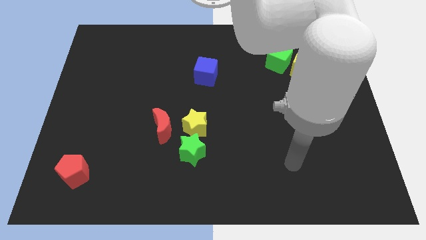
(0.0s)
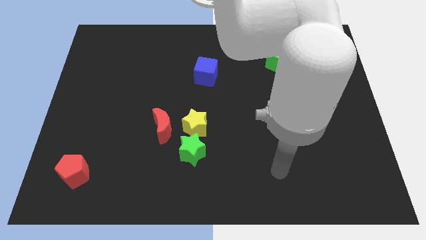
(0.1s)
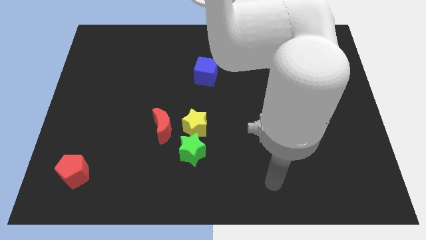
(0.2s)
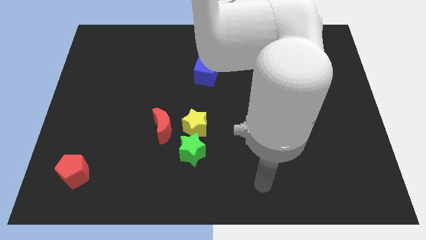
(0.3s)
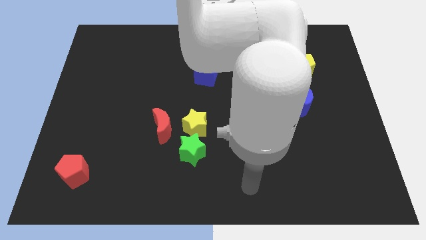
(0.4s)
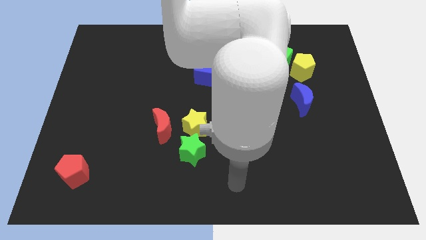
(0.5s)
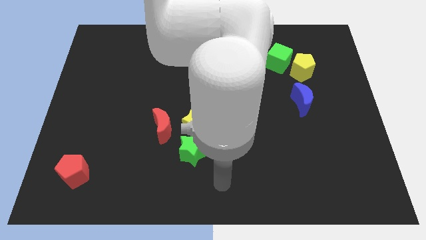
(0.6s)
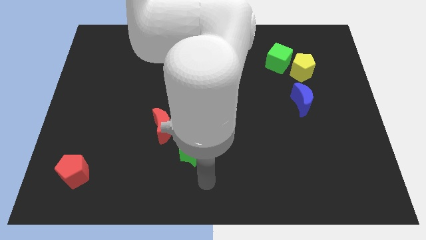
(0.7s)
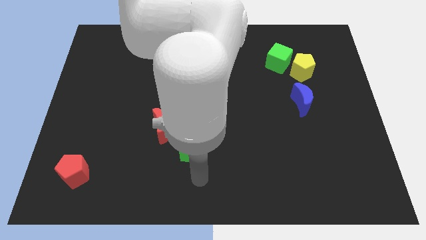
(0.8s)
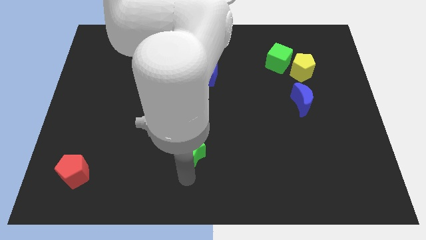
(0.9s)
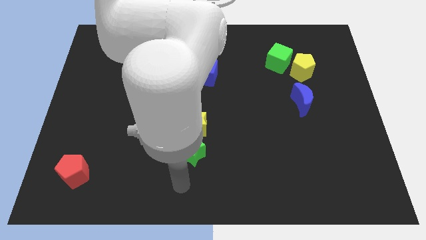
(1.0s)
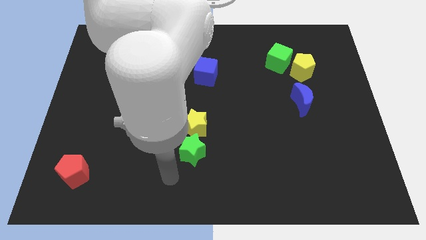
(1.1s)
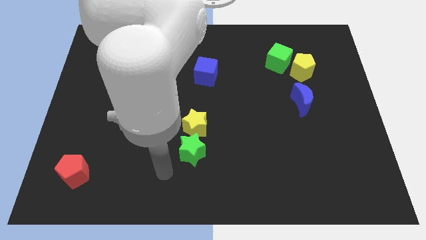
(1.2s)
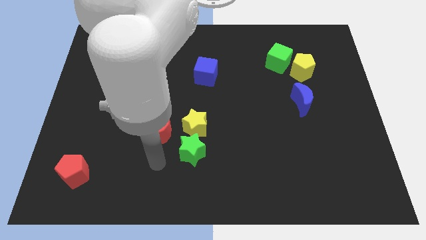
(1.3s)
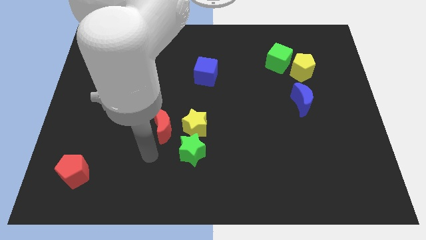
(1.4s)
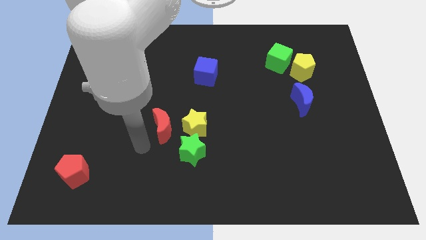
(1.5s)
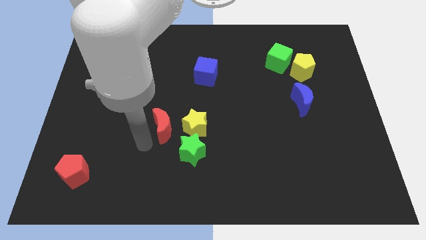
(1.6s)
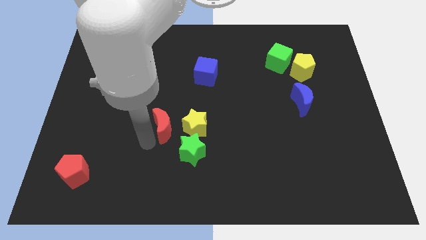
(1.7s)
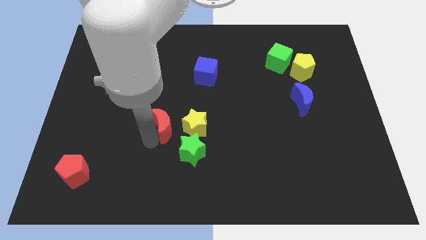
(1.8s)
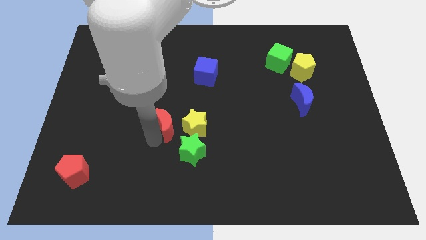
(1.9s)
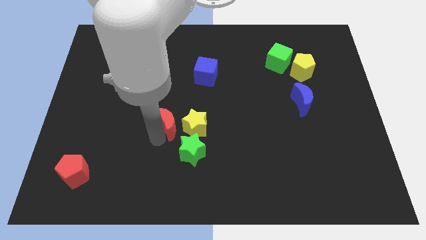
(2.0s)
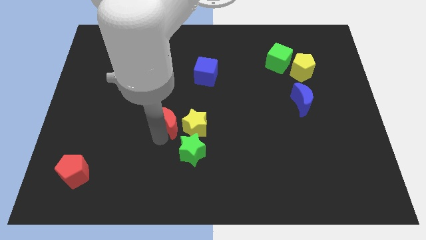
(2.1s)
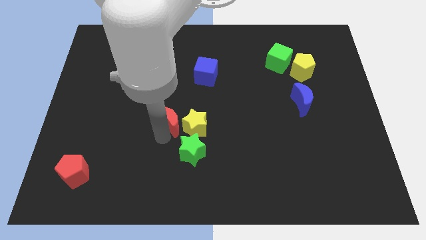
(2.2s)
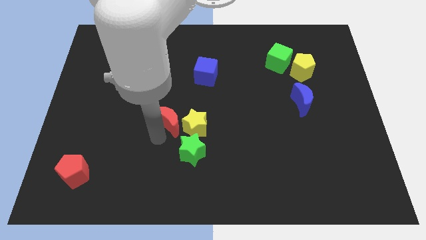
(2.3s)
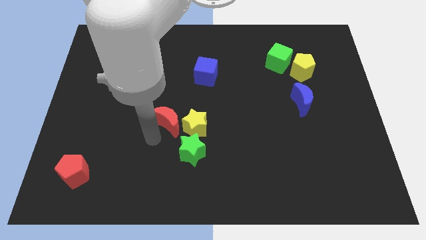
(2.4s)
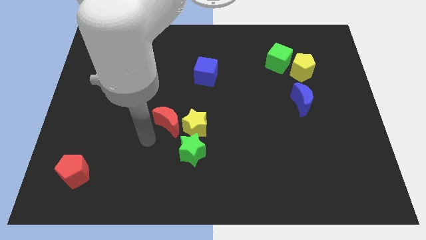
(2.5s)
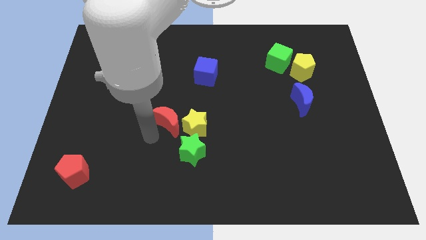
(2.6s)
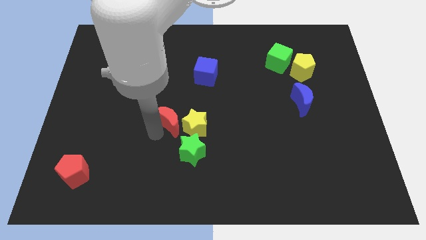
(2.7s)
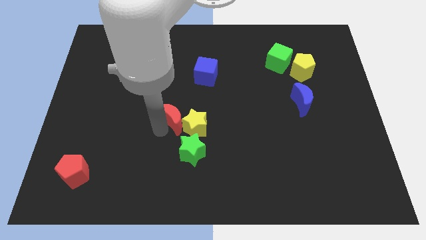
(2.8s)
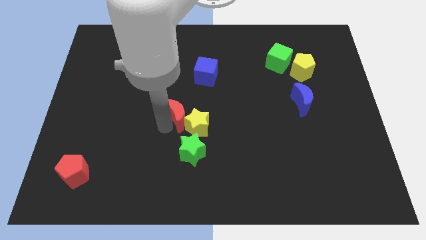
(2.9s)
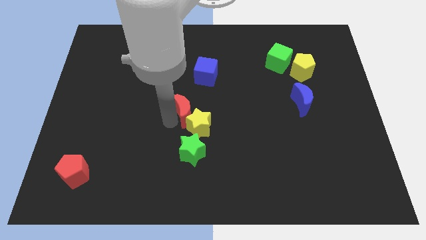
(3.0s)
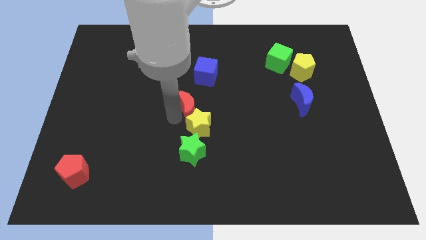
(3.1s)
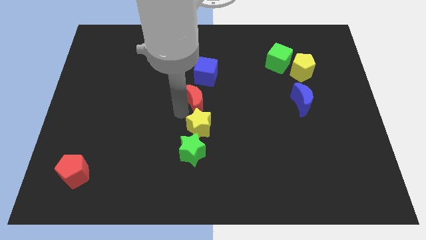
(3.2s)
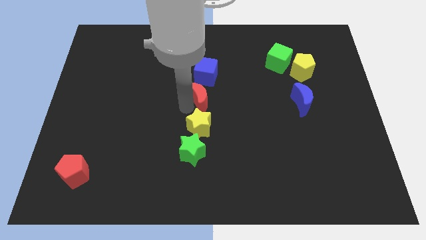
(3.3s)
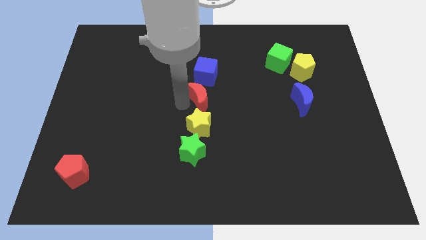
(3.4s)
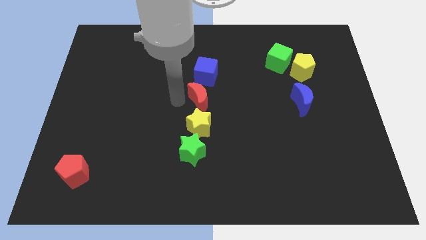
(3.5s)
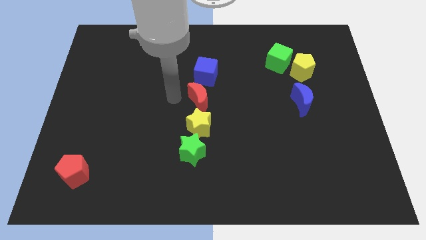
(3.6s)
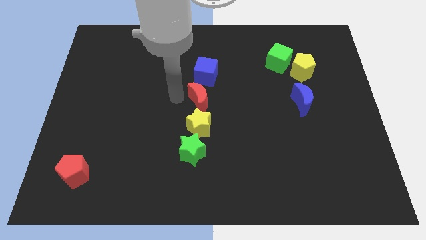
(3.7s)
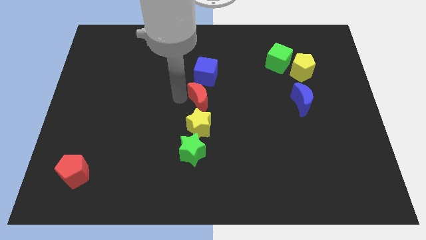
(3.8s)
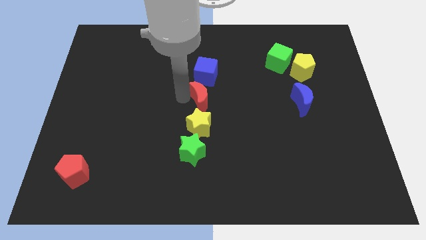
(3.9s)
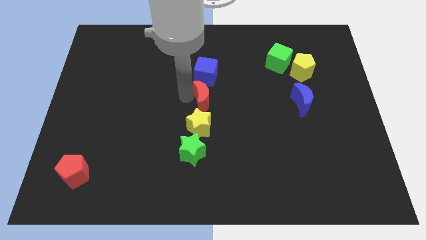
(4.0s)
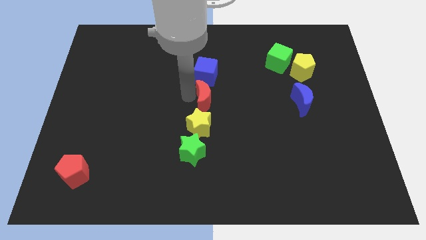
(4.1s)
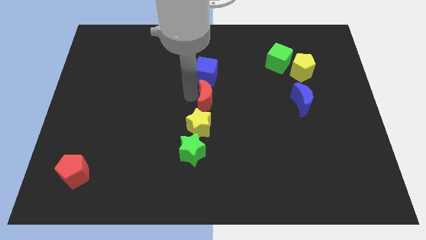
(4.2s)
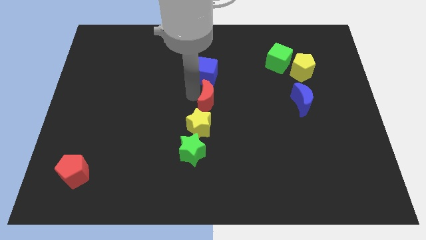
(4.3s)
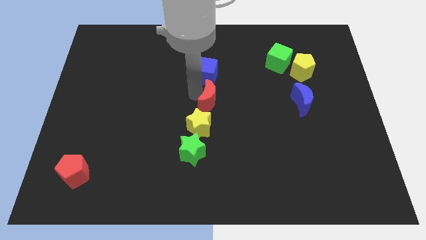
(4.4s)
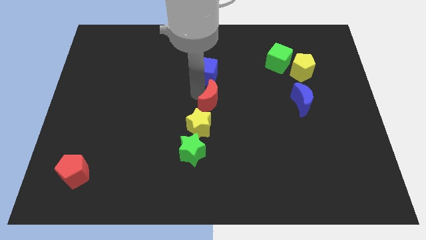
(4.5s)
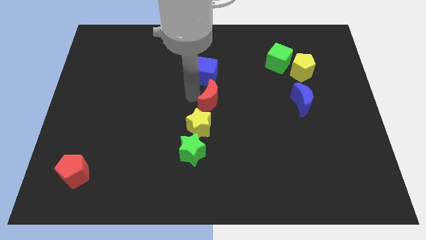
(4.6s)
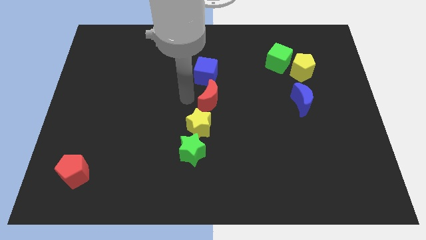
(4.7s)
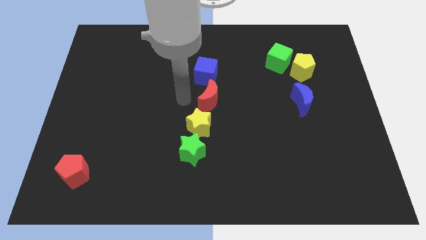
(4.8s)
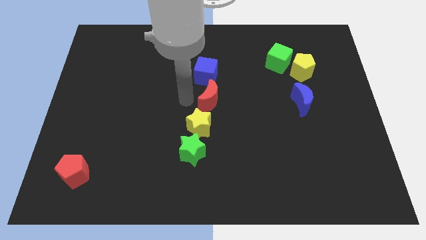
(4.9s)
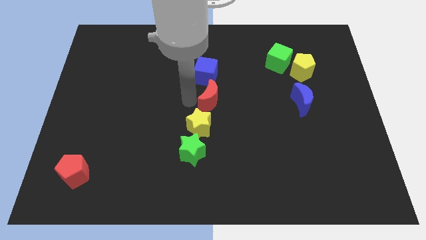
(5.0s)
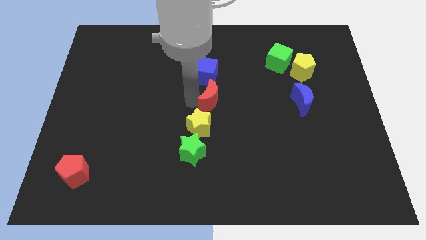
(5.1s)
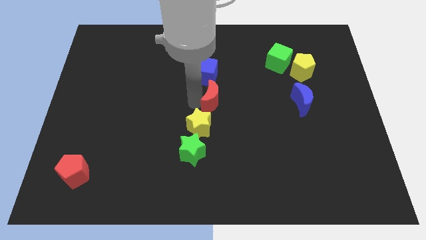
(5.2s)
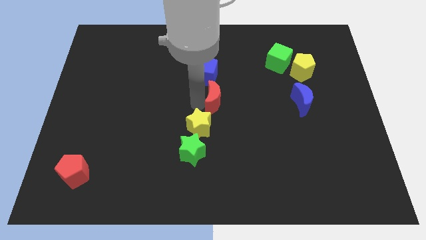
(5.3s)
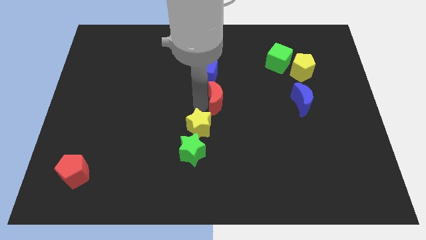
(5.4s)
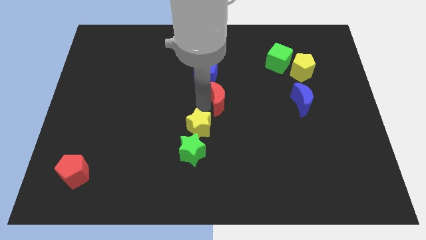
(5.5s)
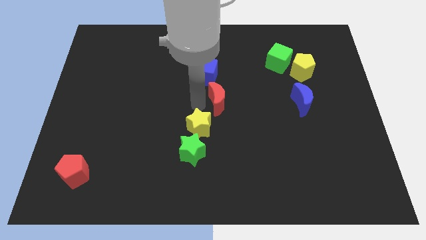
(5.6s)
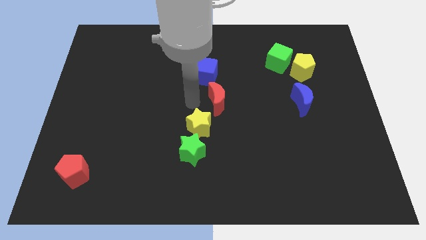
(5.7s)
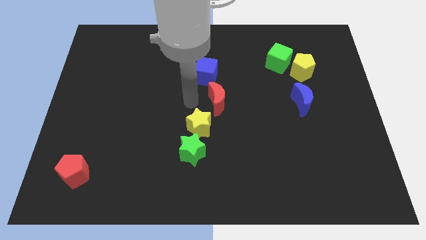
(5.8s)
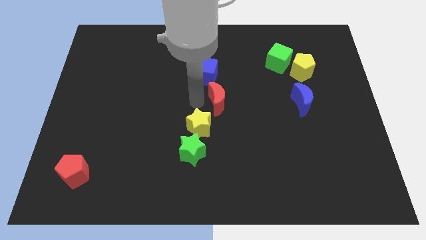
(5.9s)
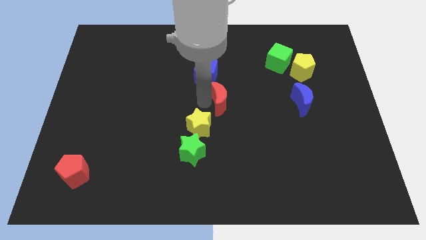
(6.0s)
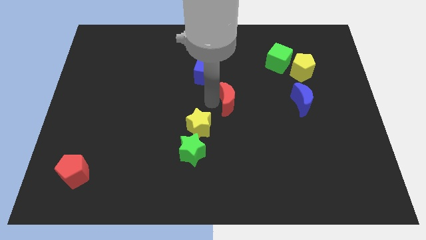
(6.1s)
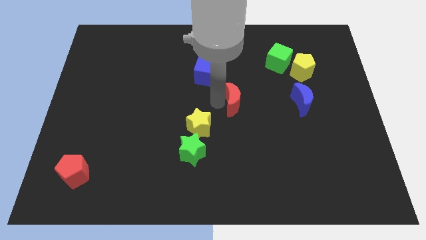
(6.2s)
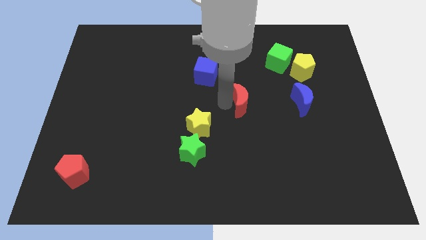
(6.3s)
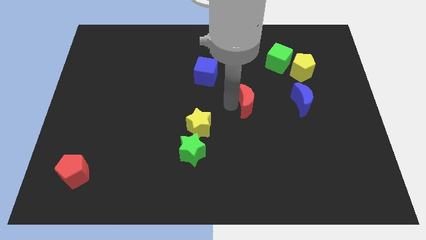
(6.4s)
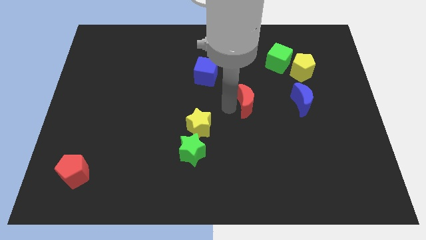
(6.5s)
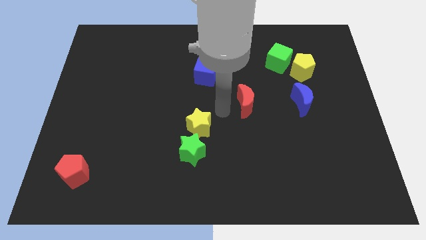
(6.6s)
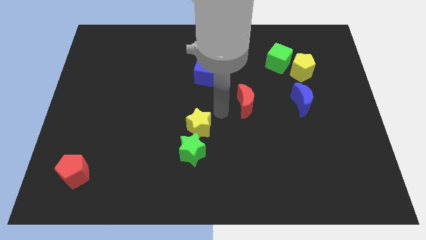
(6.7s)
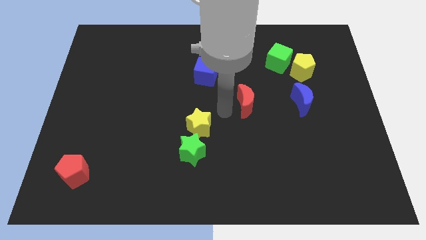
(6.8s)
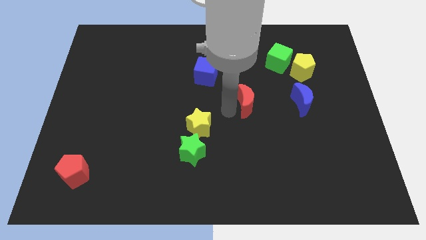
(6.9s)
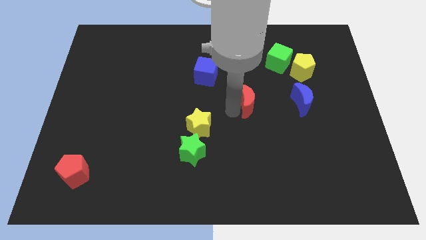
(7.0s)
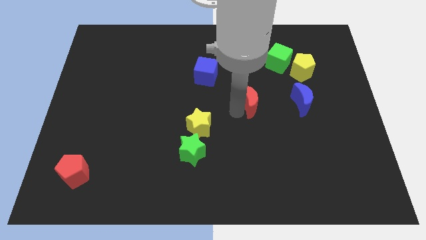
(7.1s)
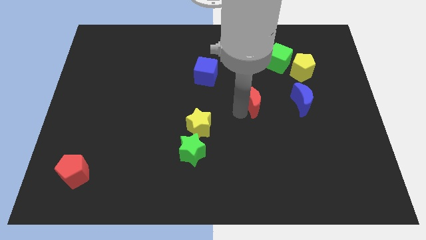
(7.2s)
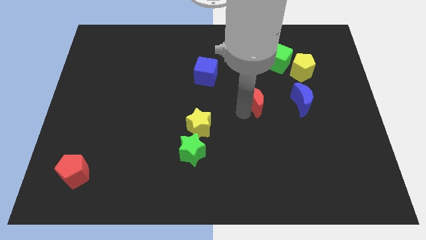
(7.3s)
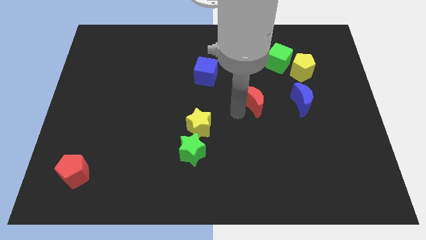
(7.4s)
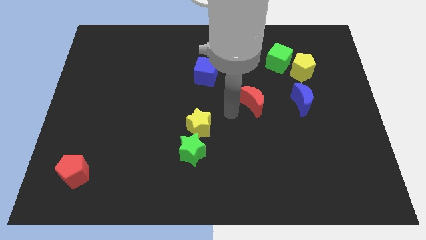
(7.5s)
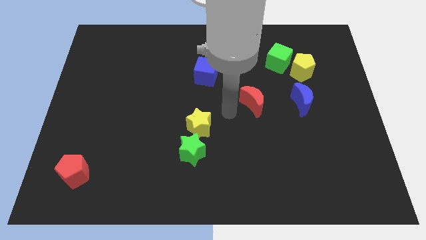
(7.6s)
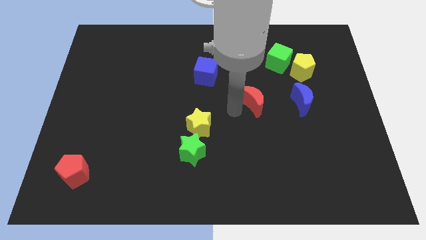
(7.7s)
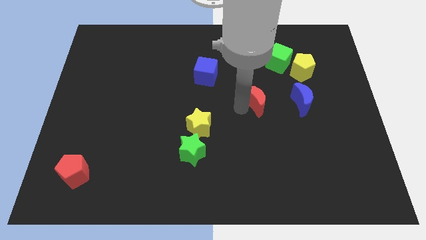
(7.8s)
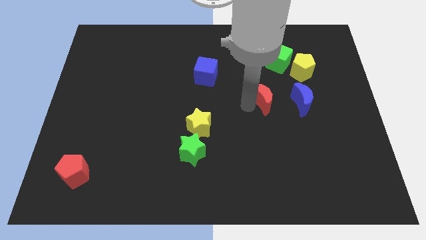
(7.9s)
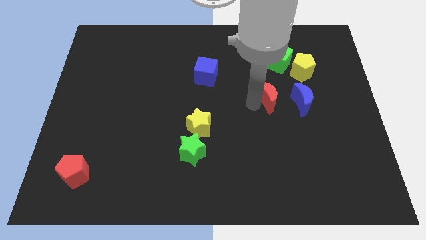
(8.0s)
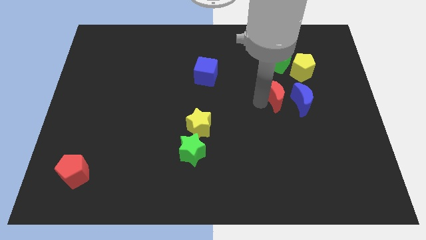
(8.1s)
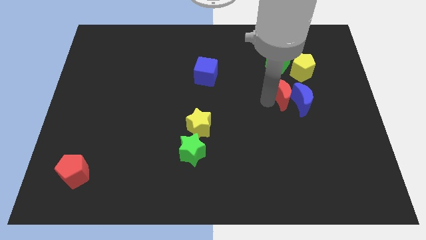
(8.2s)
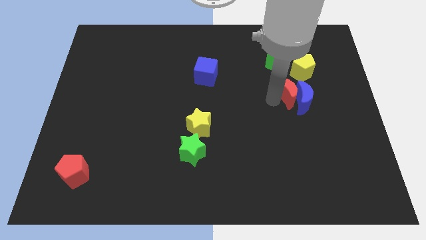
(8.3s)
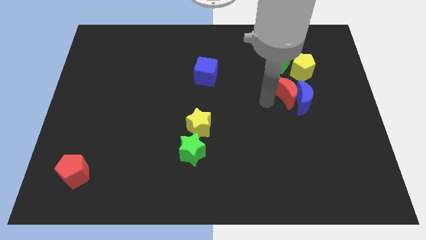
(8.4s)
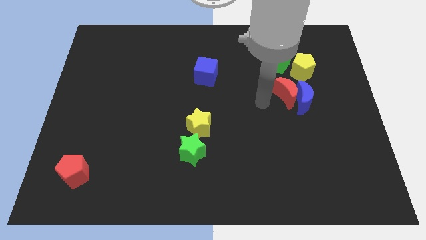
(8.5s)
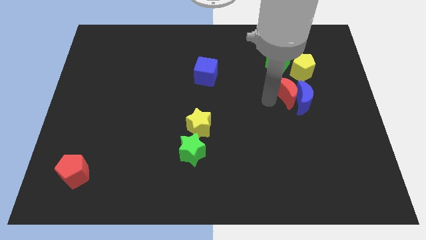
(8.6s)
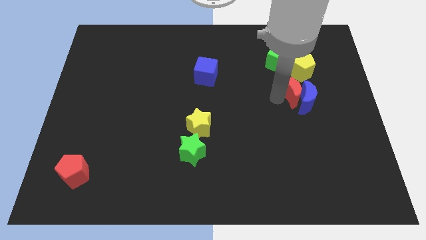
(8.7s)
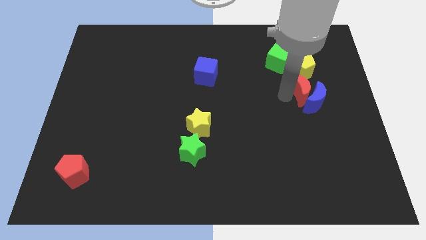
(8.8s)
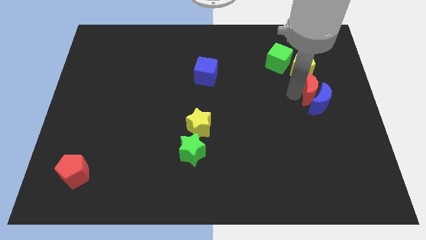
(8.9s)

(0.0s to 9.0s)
slide the red moon diagonally up and to the right of the blue moon
